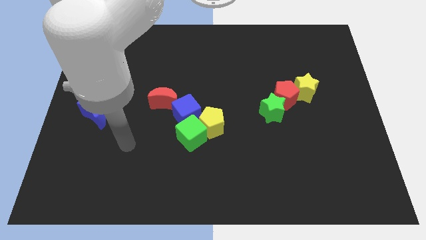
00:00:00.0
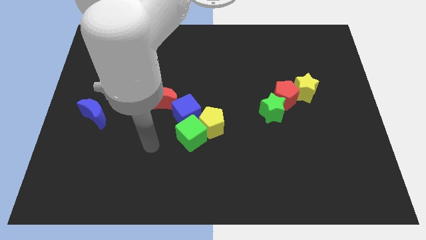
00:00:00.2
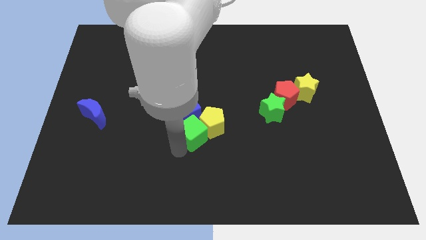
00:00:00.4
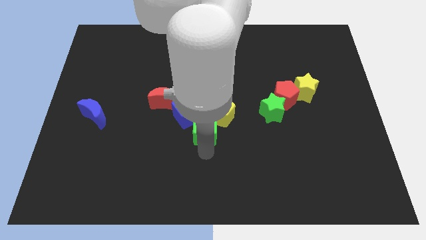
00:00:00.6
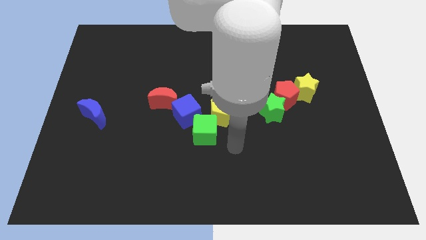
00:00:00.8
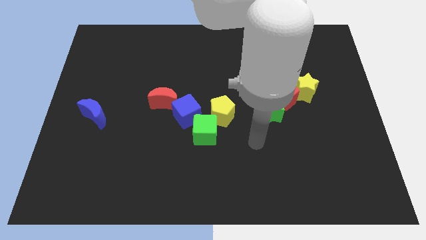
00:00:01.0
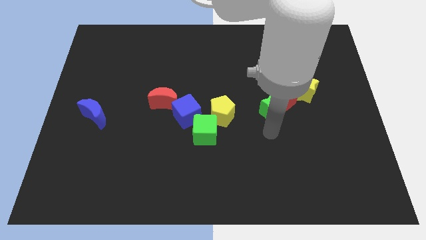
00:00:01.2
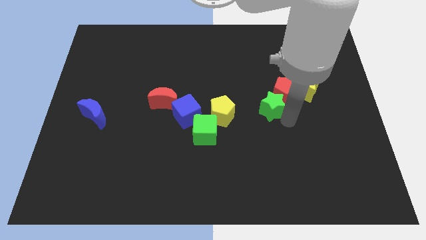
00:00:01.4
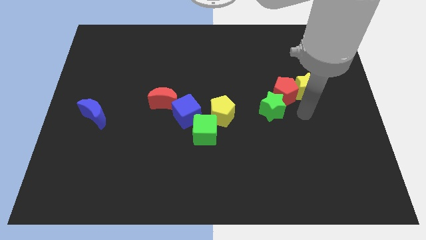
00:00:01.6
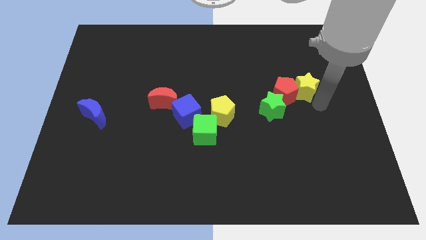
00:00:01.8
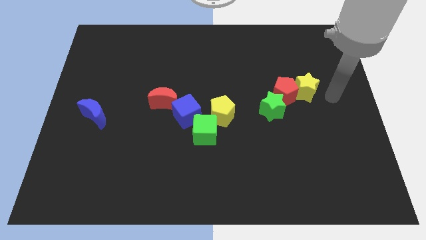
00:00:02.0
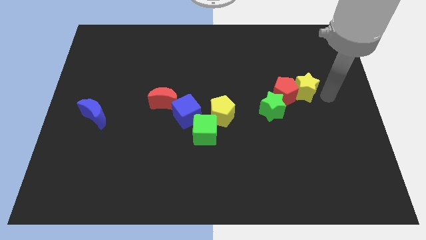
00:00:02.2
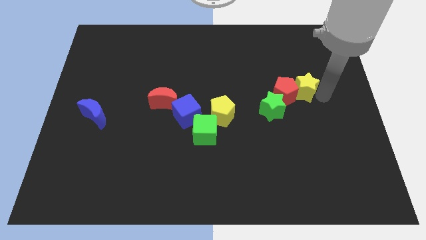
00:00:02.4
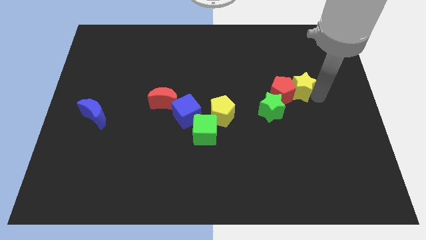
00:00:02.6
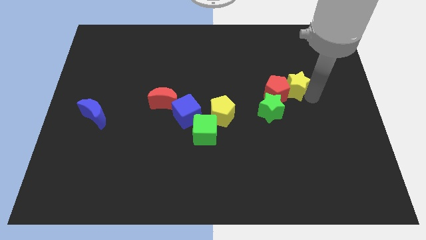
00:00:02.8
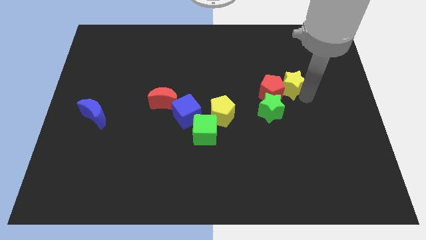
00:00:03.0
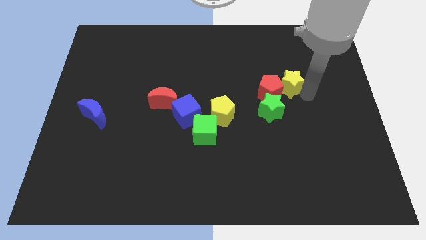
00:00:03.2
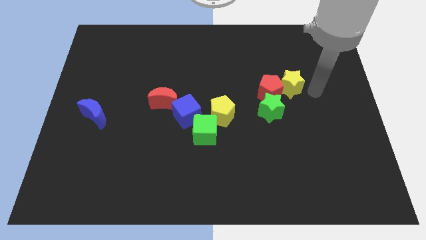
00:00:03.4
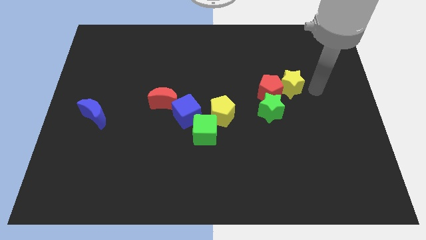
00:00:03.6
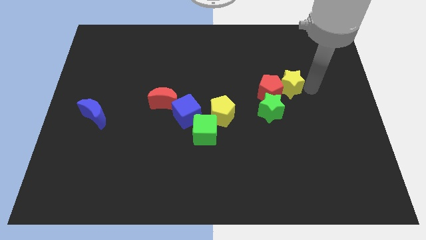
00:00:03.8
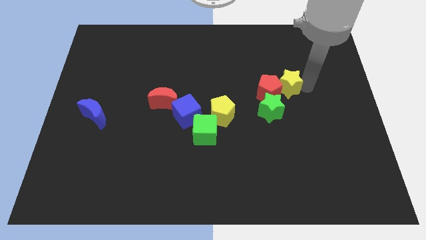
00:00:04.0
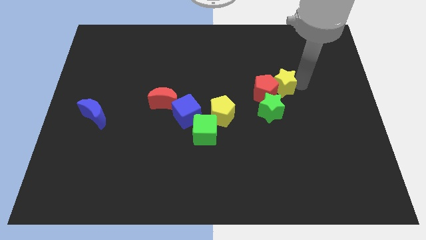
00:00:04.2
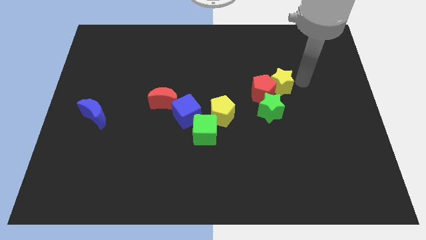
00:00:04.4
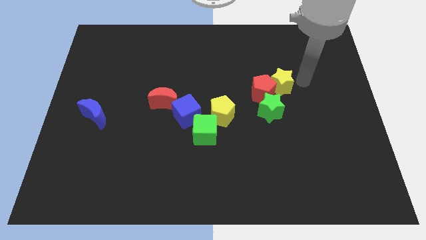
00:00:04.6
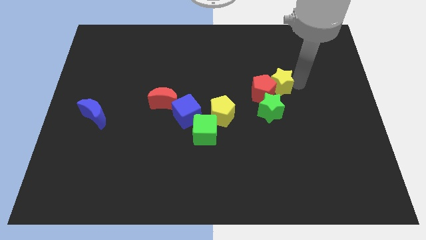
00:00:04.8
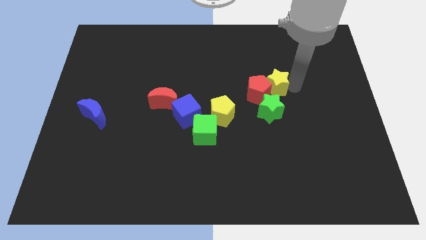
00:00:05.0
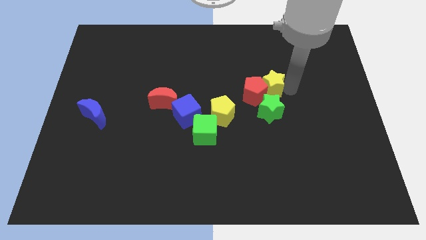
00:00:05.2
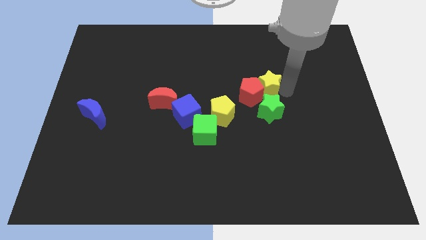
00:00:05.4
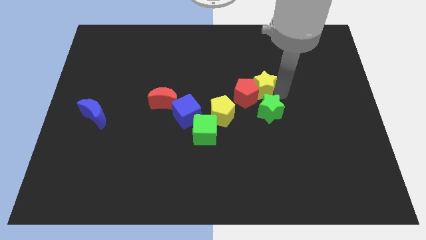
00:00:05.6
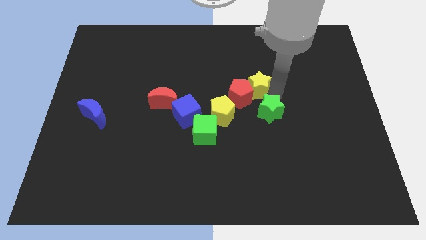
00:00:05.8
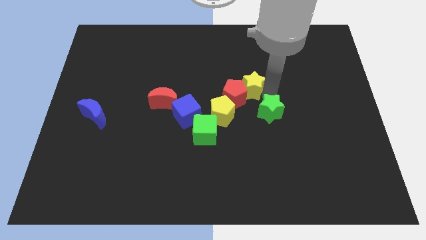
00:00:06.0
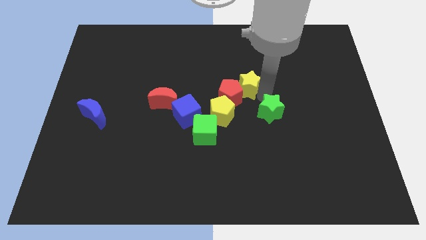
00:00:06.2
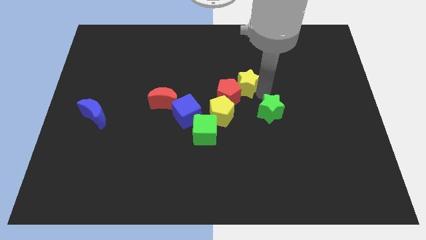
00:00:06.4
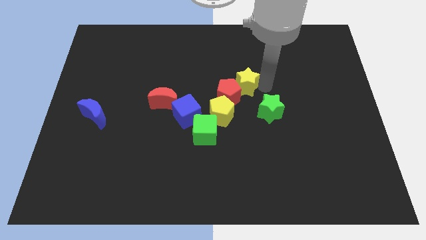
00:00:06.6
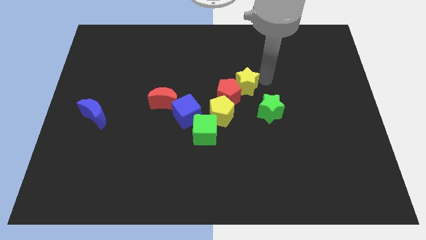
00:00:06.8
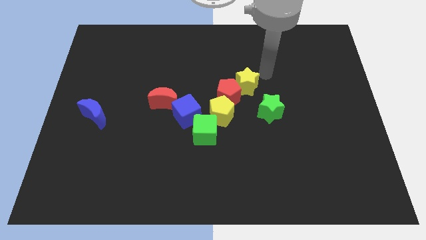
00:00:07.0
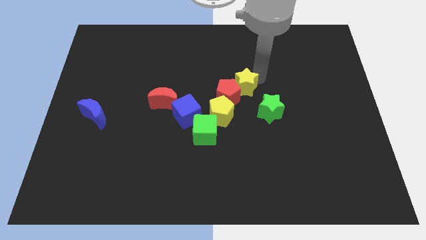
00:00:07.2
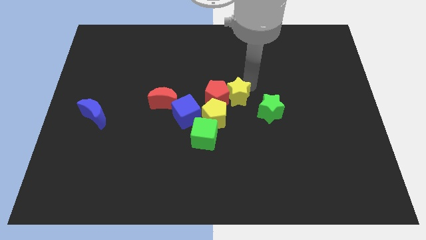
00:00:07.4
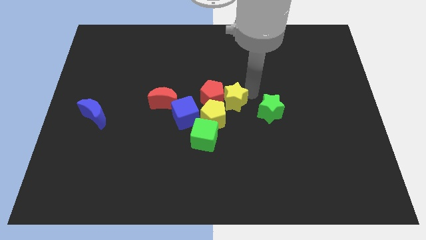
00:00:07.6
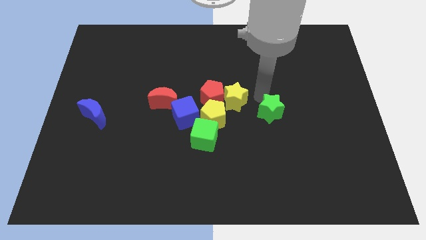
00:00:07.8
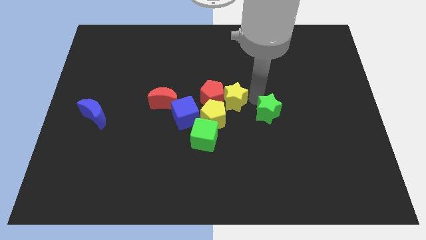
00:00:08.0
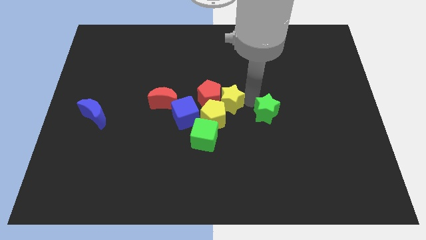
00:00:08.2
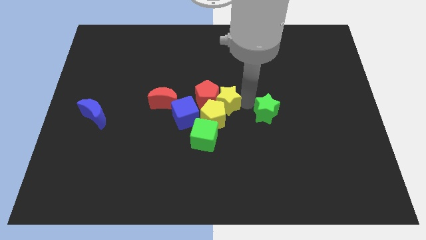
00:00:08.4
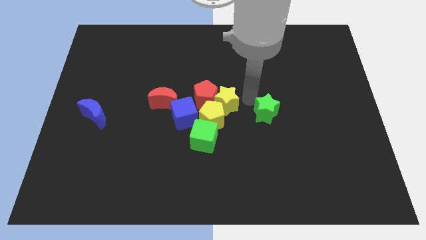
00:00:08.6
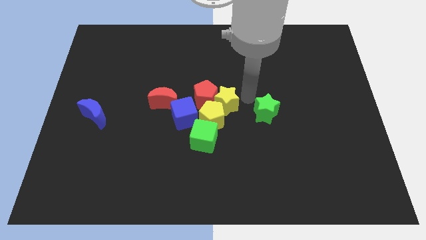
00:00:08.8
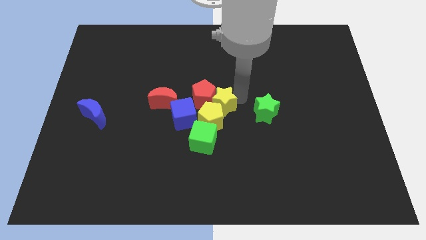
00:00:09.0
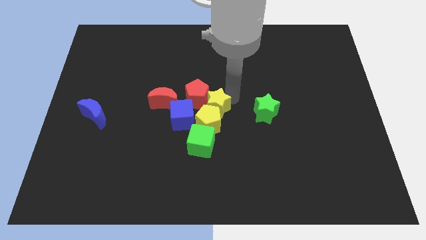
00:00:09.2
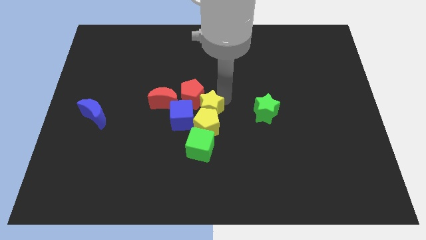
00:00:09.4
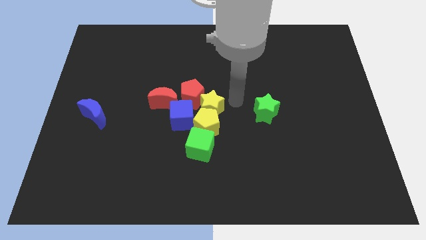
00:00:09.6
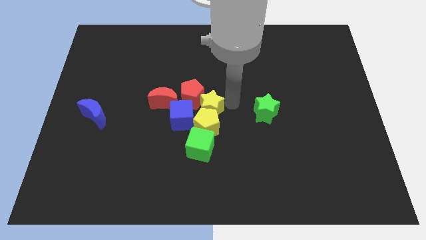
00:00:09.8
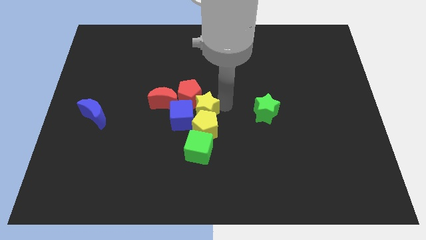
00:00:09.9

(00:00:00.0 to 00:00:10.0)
slide the yellow star towards the blue cube

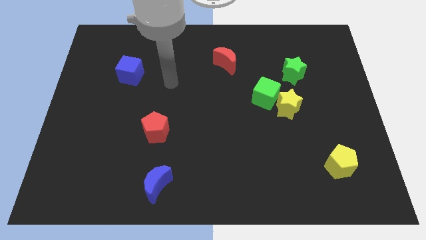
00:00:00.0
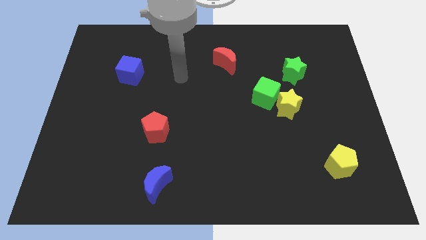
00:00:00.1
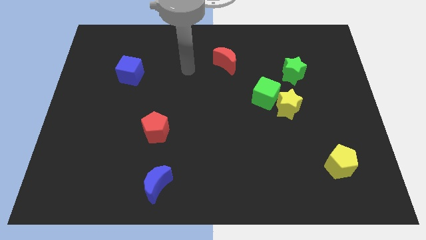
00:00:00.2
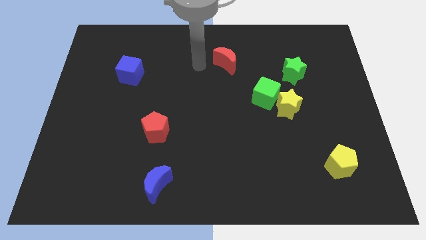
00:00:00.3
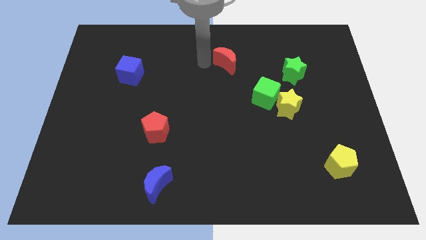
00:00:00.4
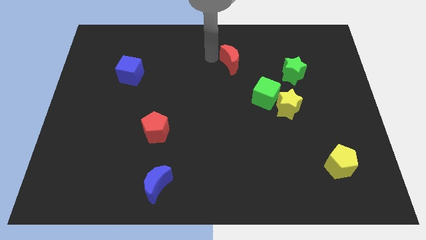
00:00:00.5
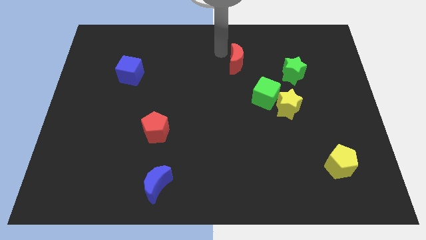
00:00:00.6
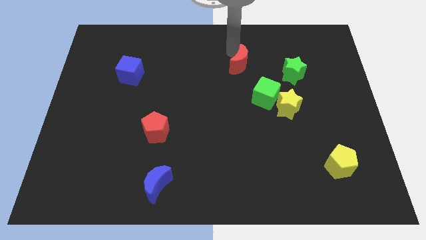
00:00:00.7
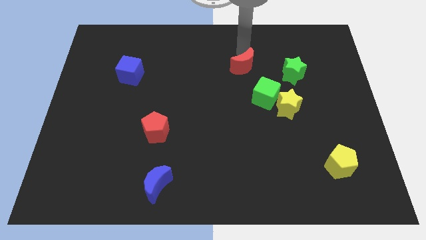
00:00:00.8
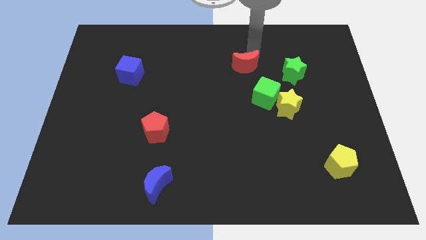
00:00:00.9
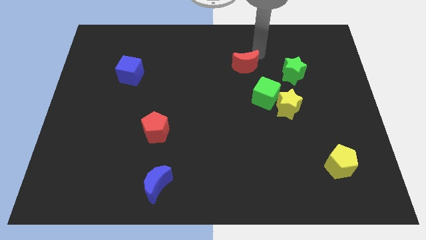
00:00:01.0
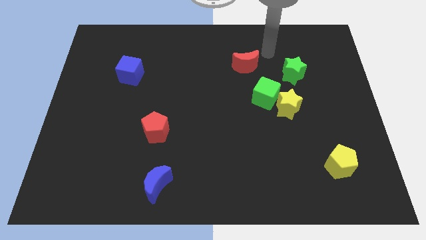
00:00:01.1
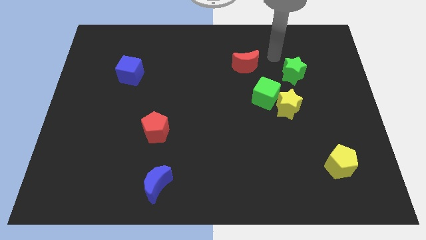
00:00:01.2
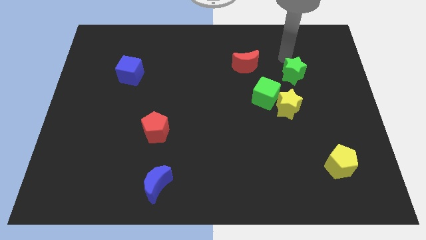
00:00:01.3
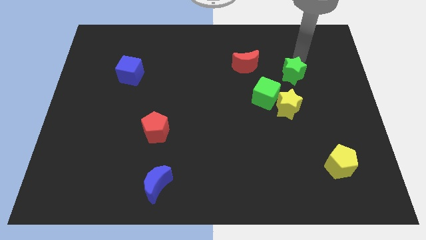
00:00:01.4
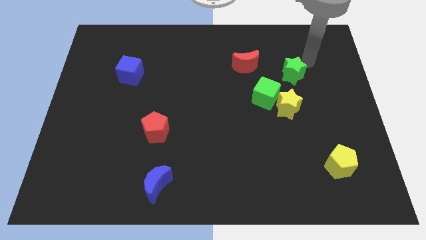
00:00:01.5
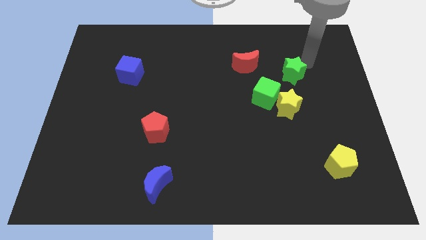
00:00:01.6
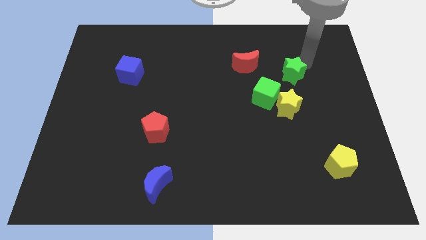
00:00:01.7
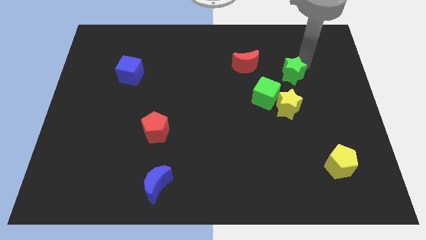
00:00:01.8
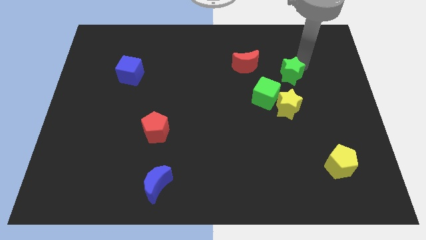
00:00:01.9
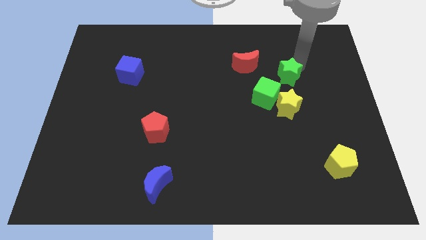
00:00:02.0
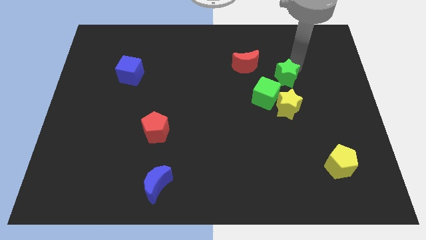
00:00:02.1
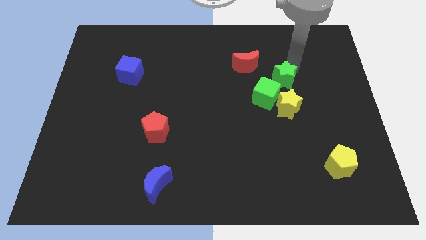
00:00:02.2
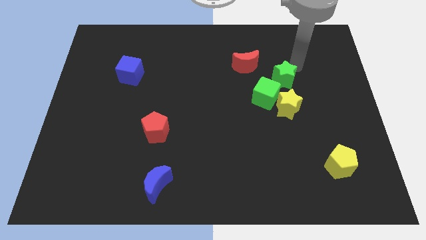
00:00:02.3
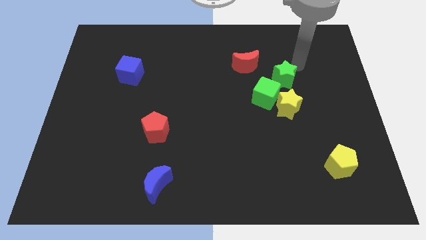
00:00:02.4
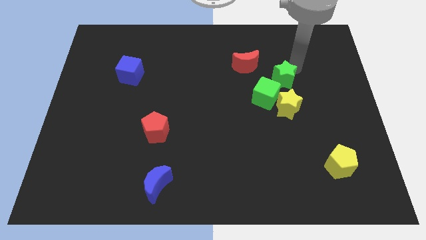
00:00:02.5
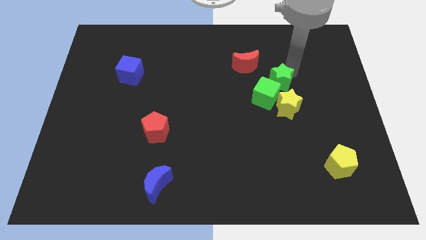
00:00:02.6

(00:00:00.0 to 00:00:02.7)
push the green star next to the green cube

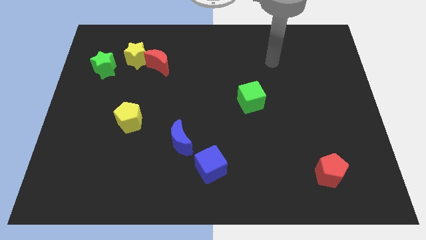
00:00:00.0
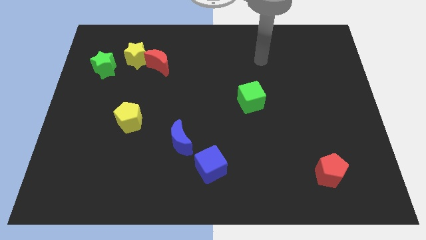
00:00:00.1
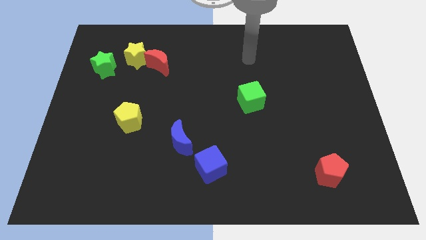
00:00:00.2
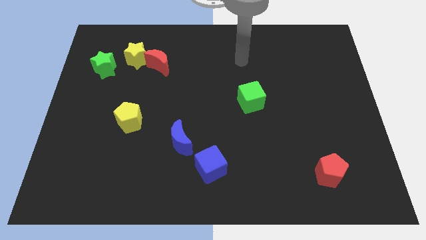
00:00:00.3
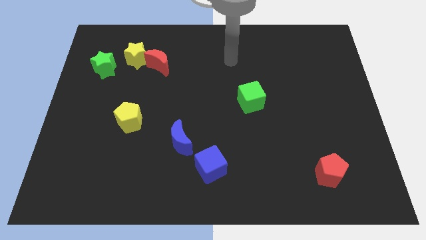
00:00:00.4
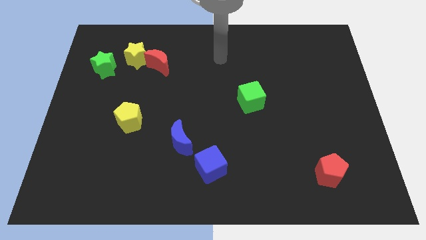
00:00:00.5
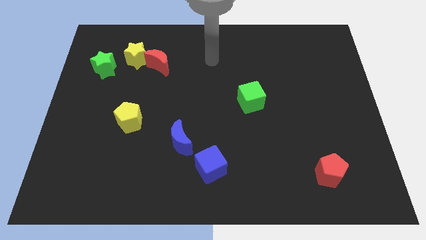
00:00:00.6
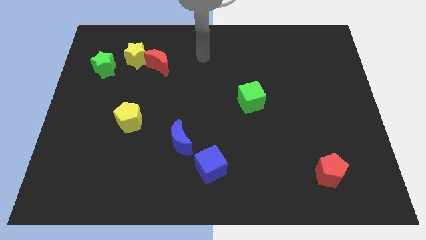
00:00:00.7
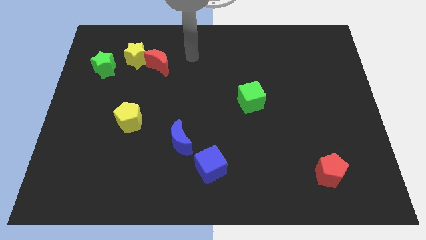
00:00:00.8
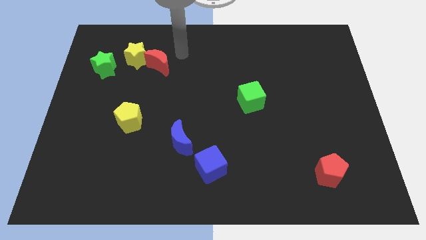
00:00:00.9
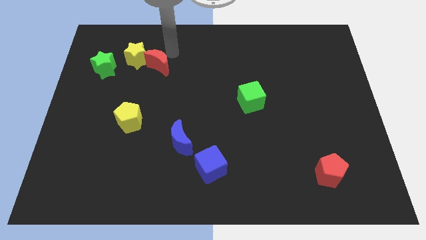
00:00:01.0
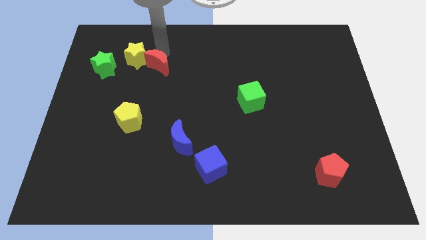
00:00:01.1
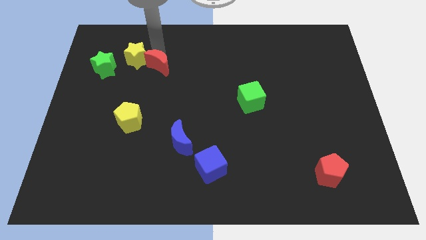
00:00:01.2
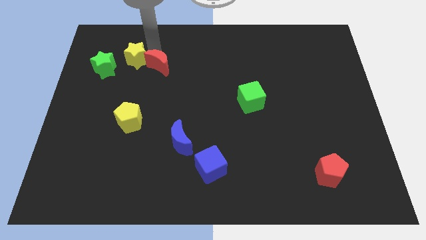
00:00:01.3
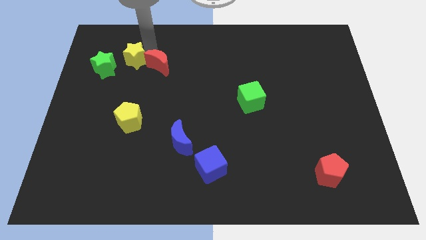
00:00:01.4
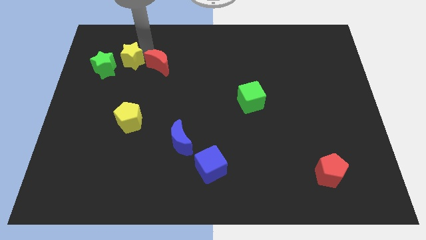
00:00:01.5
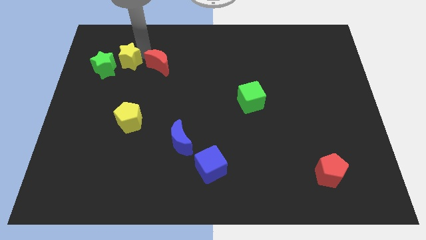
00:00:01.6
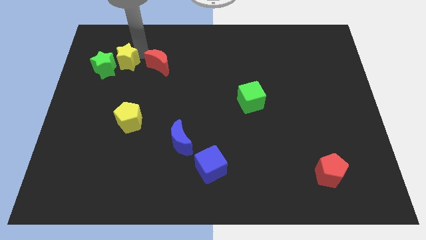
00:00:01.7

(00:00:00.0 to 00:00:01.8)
push the yellow star next to the green star
